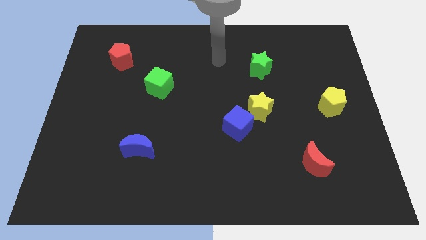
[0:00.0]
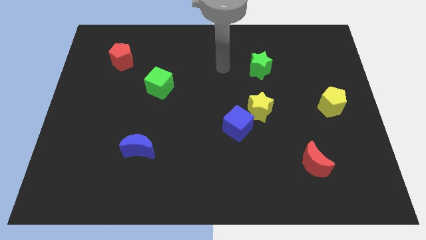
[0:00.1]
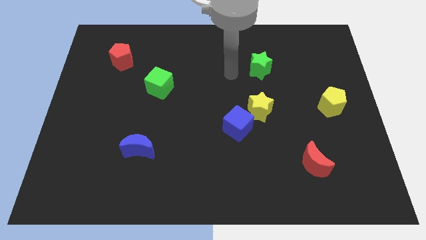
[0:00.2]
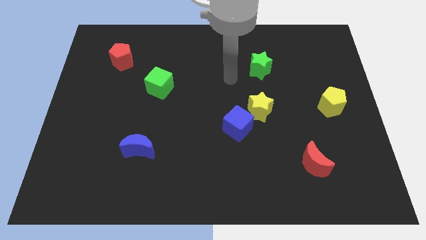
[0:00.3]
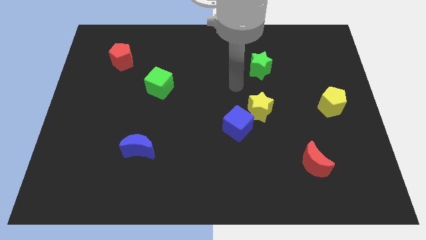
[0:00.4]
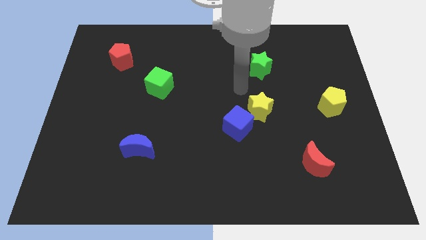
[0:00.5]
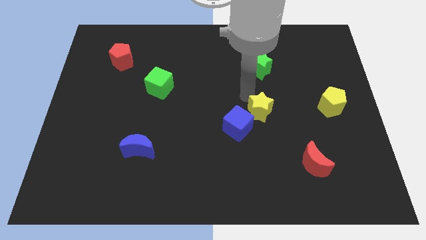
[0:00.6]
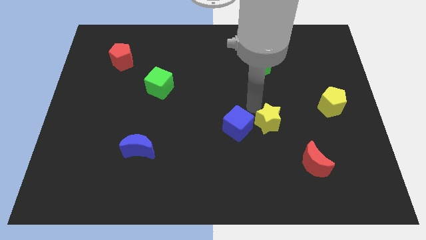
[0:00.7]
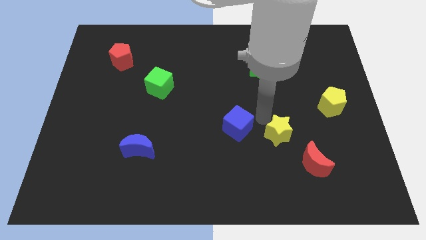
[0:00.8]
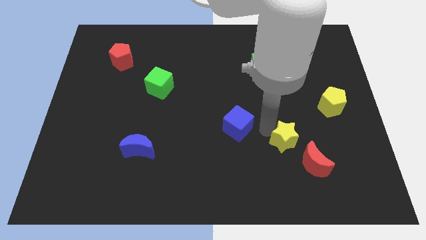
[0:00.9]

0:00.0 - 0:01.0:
move the blue cube away from the yellow star

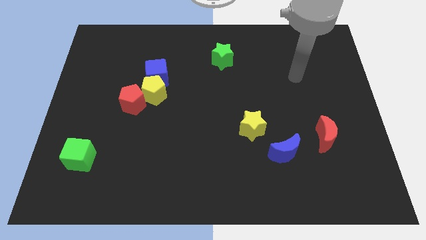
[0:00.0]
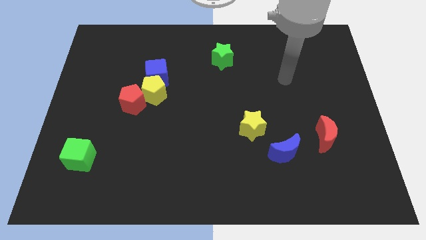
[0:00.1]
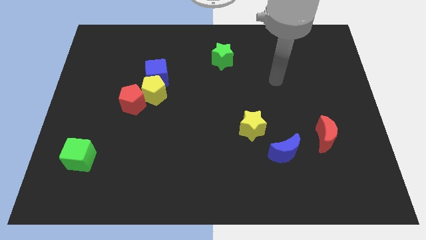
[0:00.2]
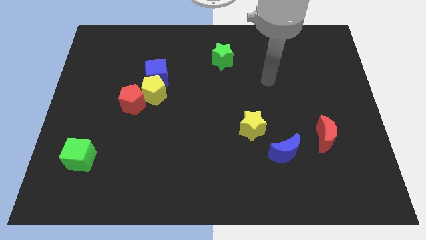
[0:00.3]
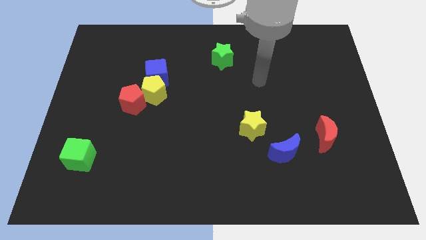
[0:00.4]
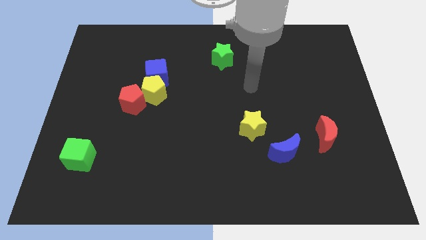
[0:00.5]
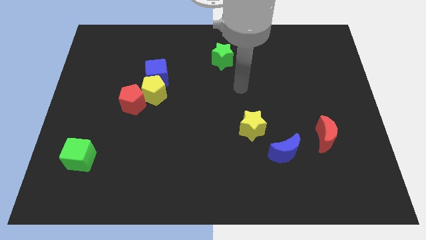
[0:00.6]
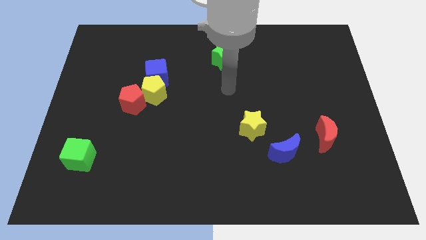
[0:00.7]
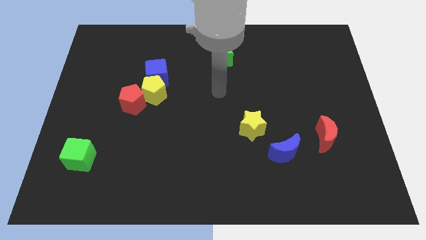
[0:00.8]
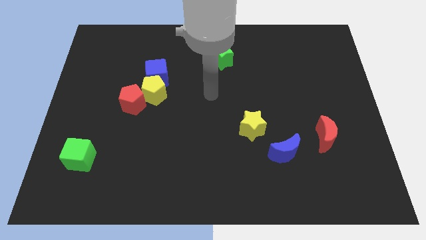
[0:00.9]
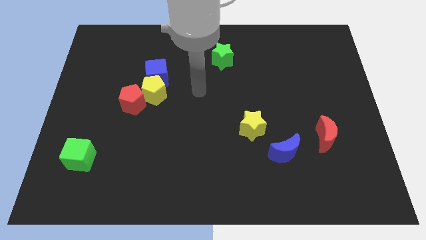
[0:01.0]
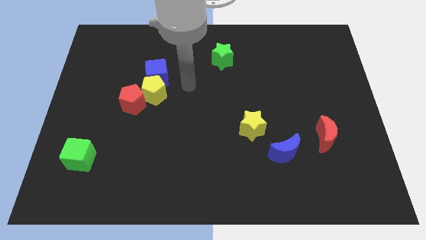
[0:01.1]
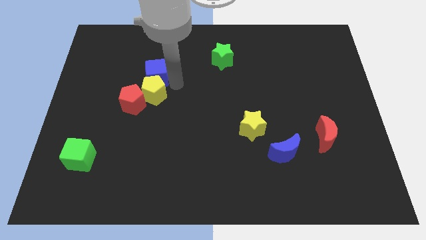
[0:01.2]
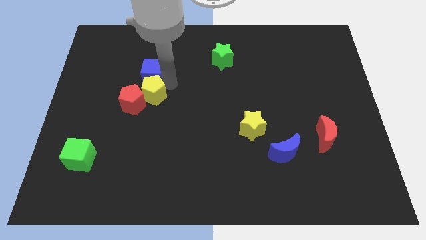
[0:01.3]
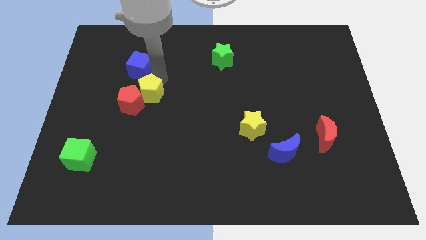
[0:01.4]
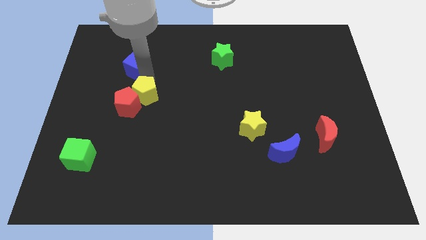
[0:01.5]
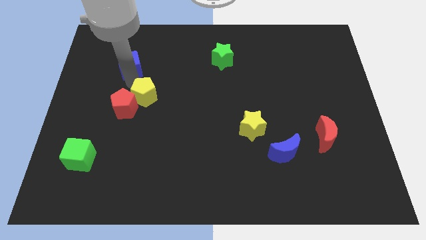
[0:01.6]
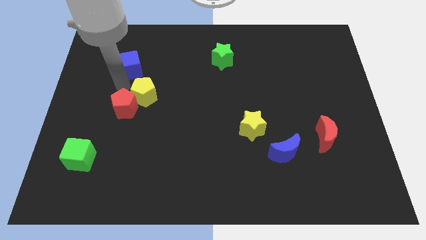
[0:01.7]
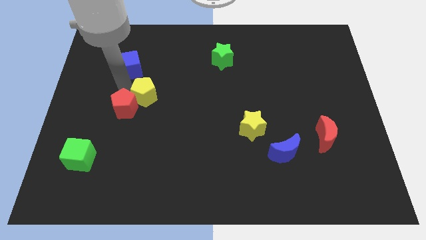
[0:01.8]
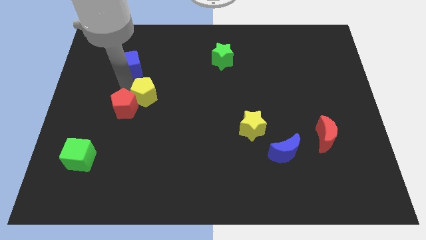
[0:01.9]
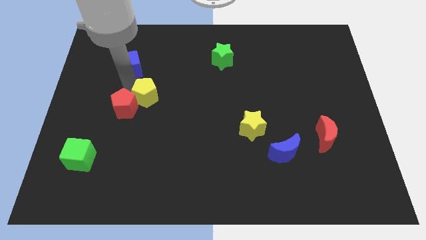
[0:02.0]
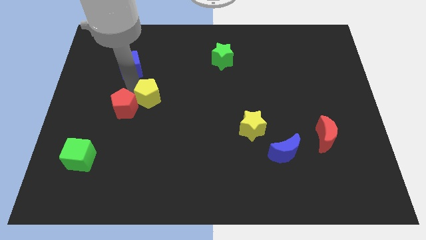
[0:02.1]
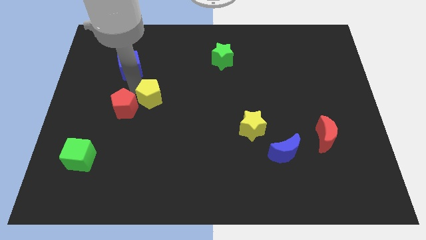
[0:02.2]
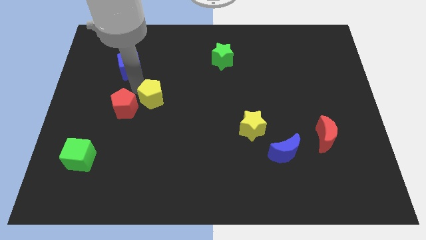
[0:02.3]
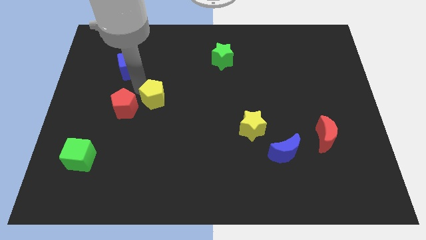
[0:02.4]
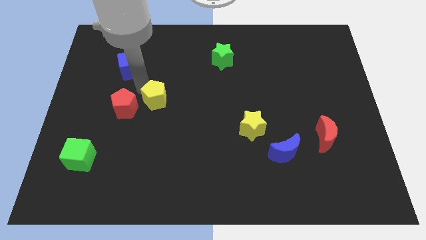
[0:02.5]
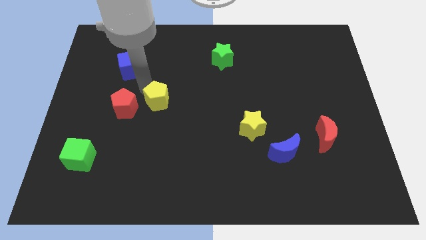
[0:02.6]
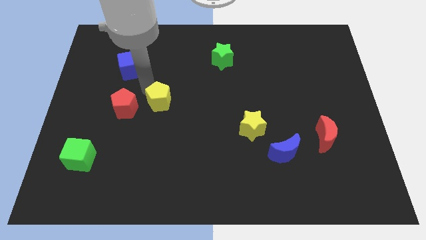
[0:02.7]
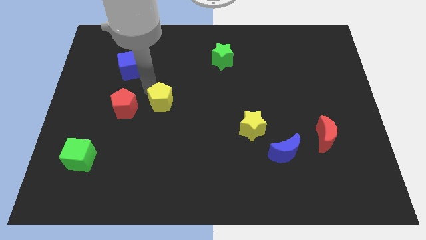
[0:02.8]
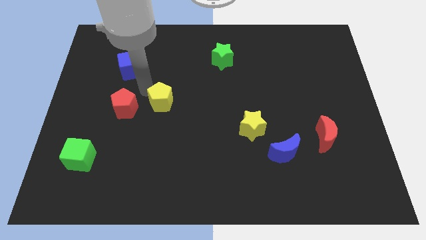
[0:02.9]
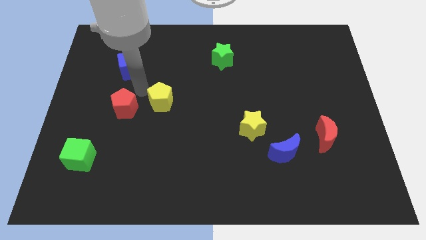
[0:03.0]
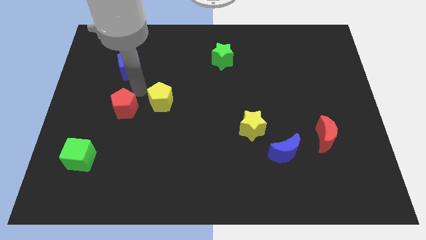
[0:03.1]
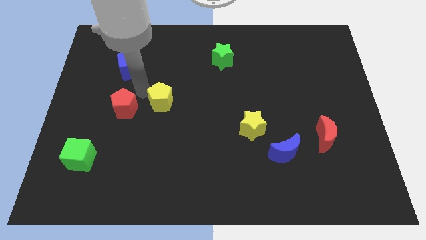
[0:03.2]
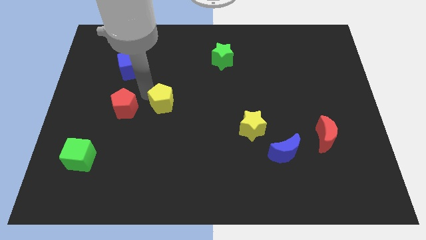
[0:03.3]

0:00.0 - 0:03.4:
separate the yellow pentagon from the blue cube and red pentagon

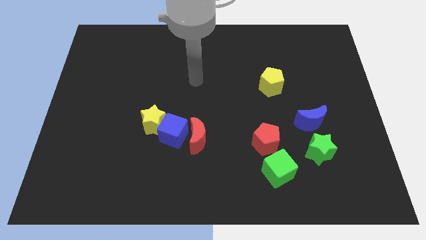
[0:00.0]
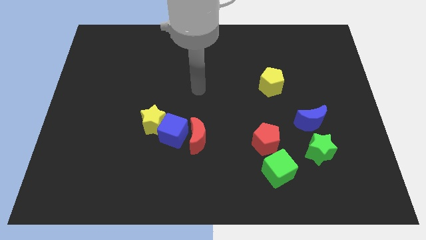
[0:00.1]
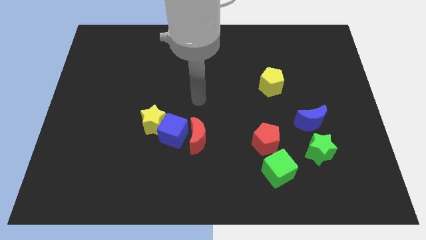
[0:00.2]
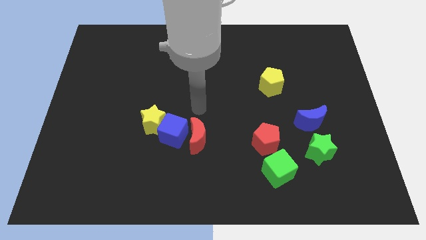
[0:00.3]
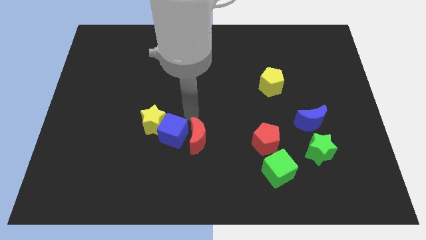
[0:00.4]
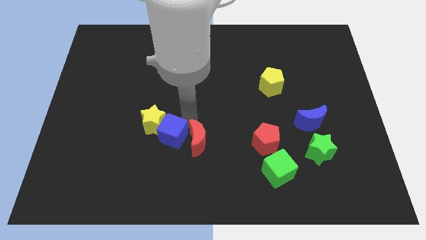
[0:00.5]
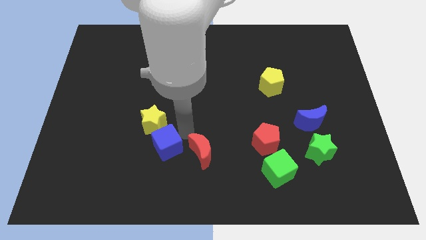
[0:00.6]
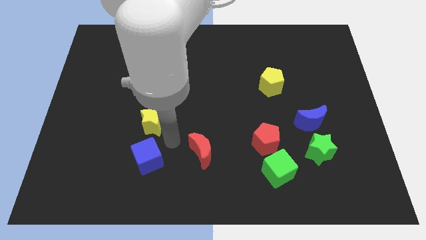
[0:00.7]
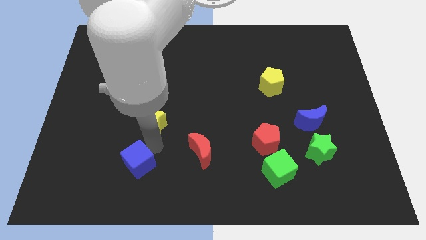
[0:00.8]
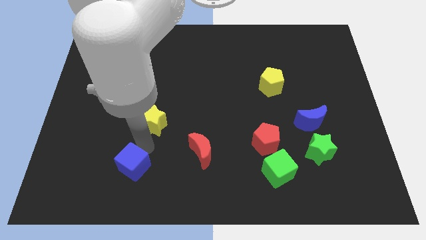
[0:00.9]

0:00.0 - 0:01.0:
move the yellow star away from the blue cube

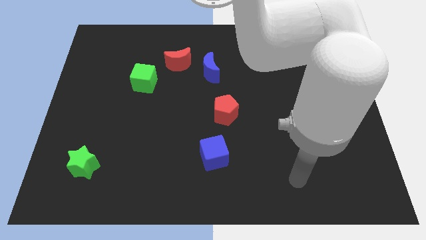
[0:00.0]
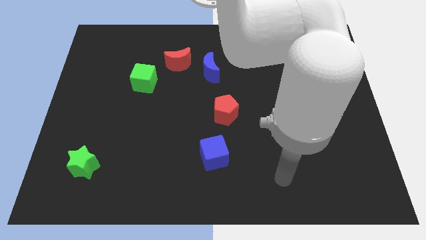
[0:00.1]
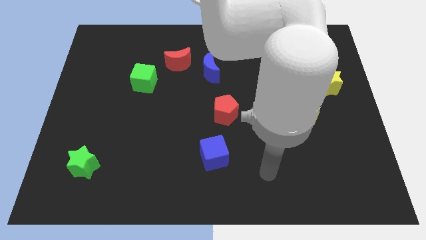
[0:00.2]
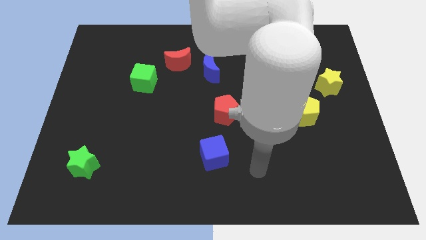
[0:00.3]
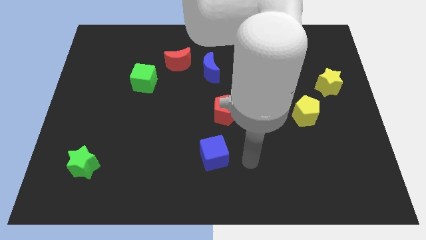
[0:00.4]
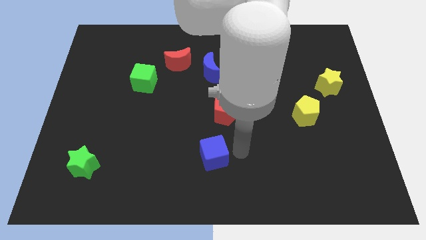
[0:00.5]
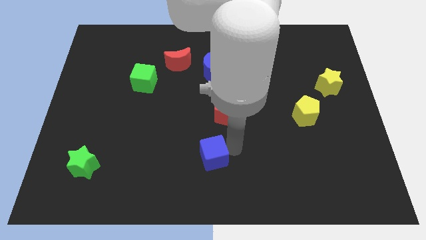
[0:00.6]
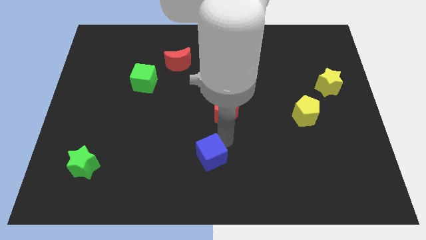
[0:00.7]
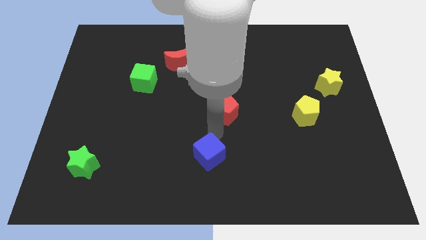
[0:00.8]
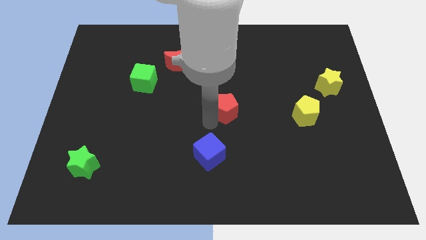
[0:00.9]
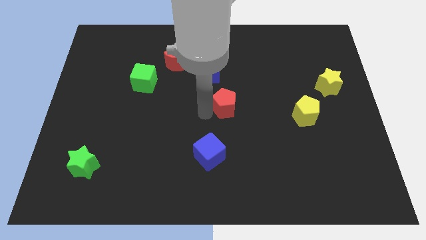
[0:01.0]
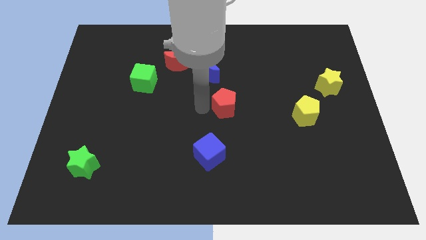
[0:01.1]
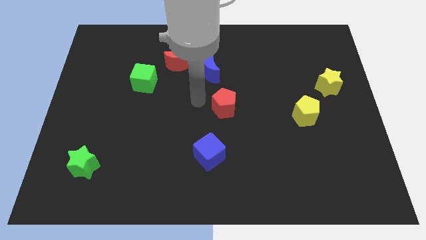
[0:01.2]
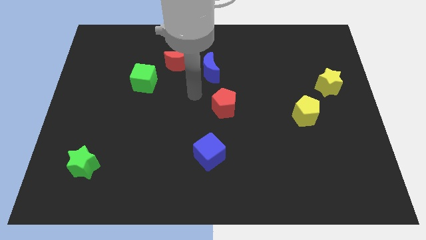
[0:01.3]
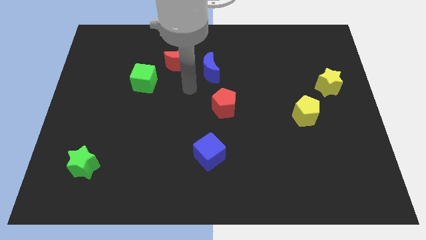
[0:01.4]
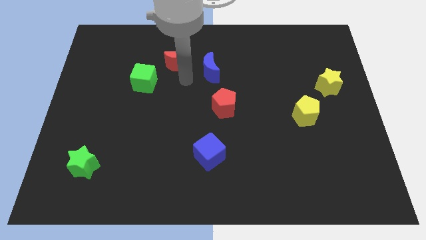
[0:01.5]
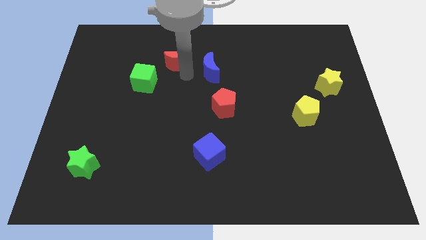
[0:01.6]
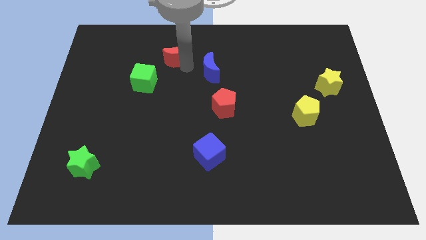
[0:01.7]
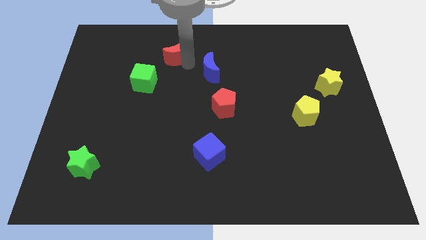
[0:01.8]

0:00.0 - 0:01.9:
separate the blue moon from the red moon

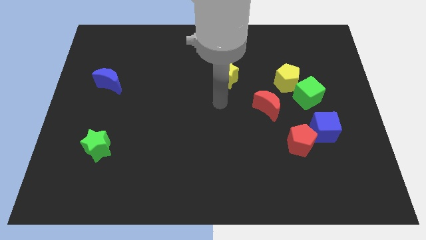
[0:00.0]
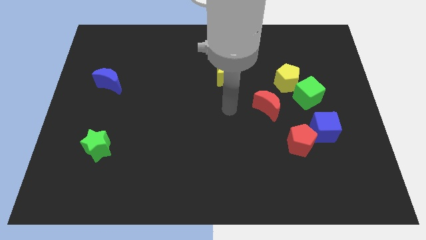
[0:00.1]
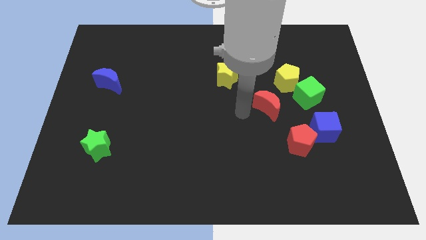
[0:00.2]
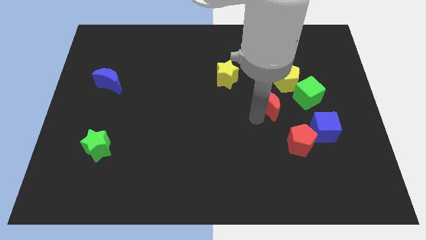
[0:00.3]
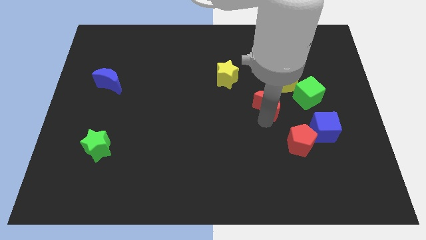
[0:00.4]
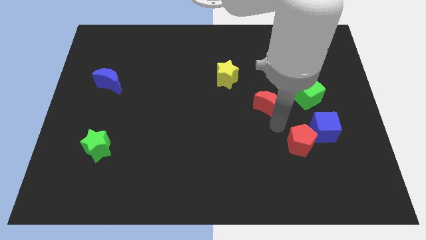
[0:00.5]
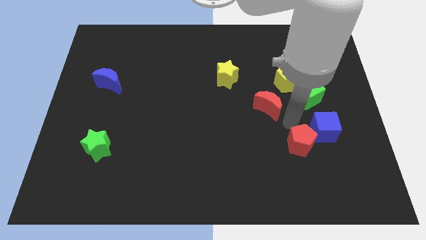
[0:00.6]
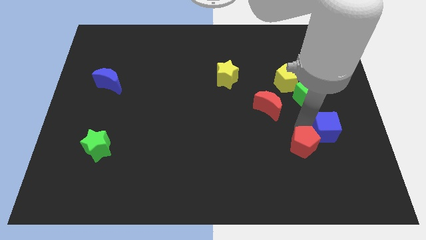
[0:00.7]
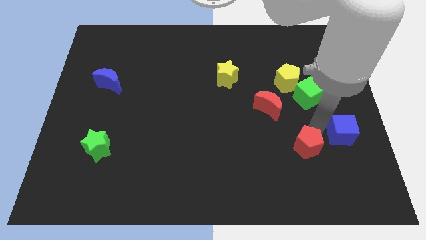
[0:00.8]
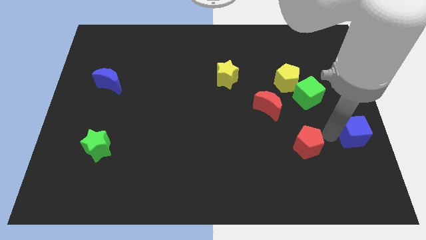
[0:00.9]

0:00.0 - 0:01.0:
separate the red pentagon from the blue cube

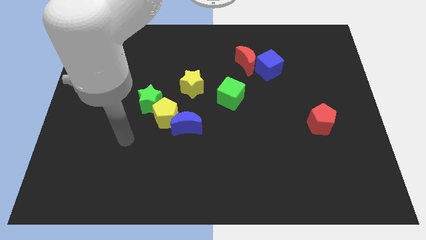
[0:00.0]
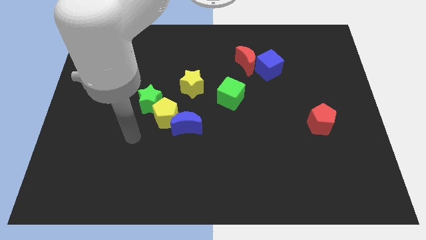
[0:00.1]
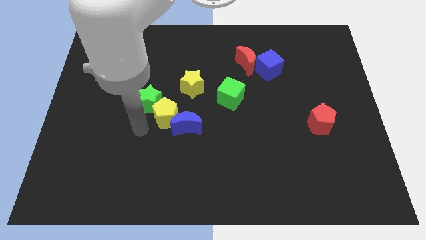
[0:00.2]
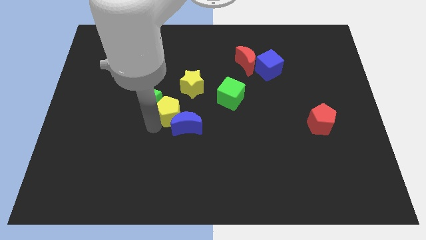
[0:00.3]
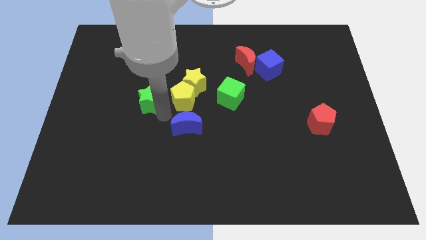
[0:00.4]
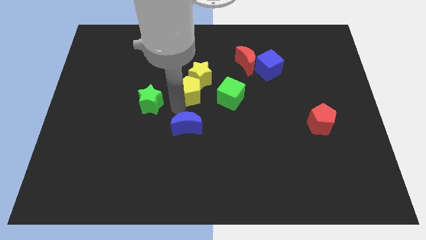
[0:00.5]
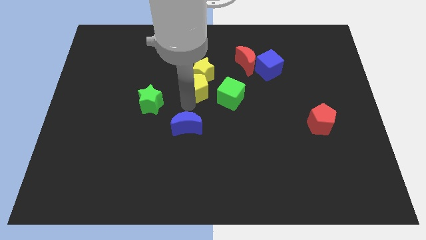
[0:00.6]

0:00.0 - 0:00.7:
pull the blue moon apart from the yellow pentagon

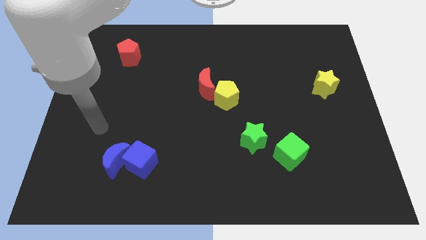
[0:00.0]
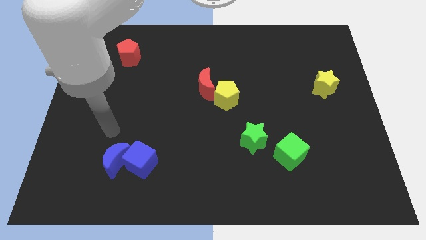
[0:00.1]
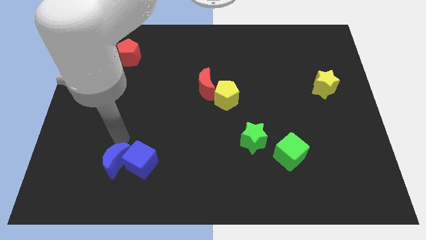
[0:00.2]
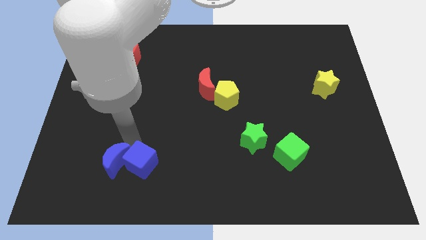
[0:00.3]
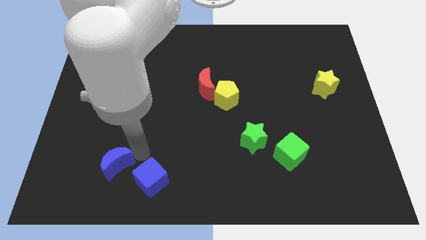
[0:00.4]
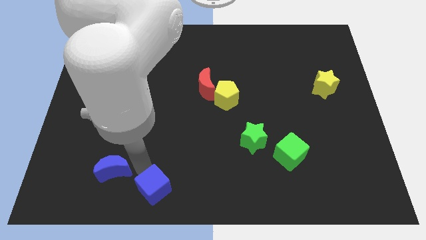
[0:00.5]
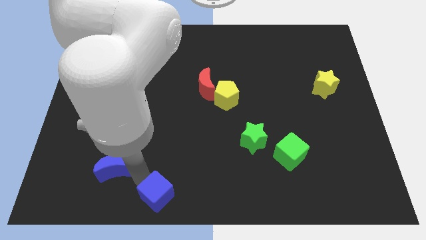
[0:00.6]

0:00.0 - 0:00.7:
pull the blue moon apart from the blue cube
